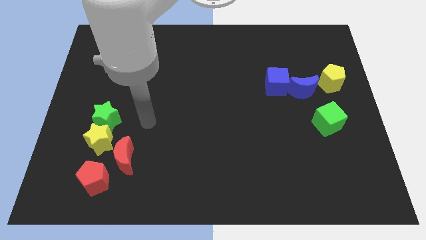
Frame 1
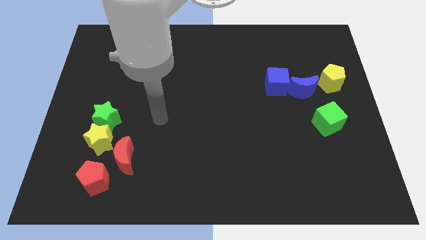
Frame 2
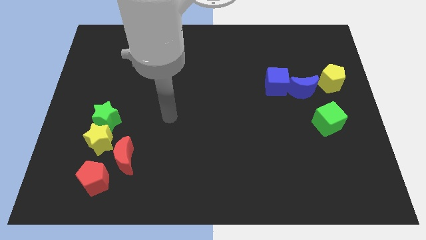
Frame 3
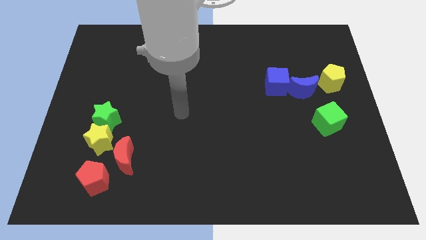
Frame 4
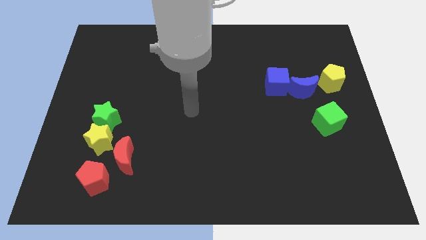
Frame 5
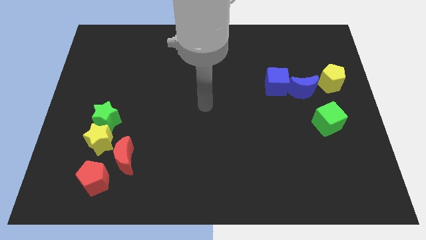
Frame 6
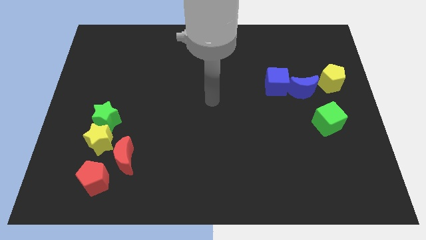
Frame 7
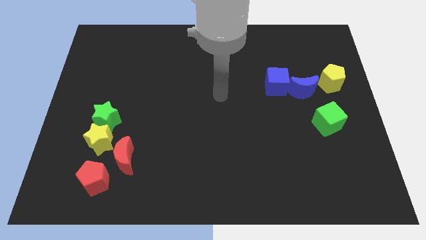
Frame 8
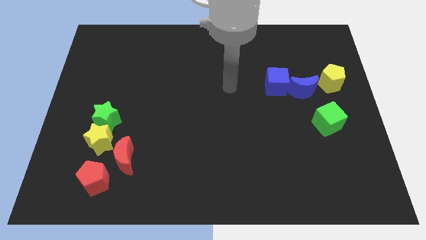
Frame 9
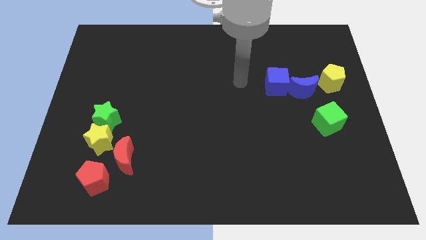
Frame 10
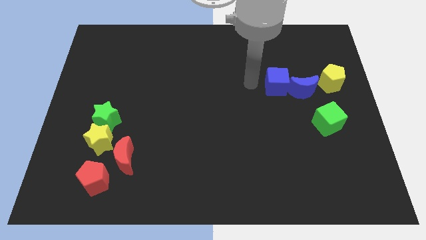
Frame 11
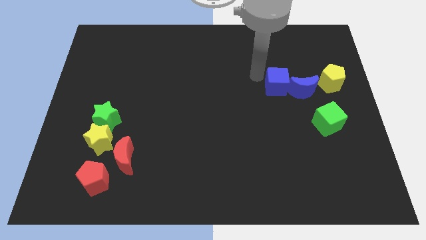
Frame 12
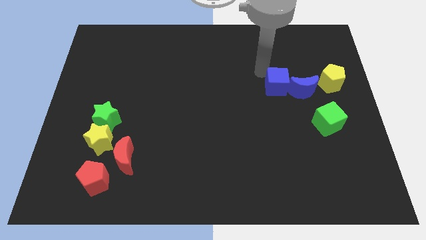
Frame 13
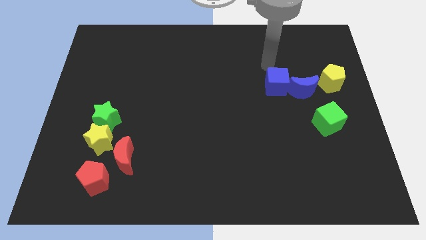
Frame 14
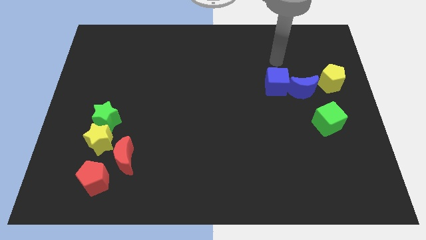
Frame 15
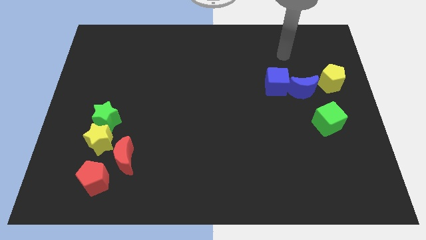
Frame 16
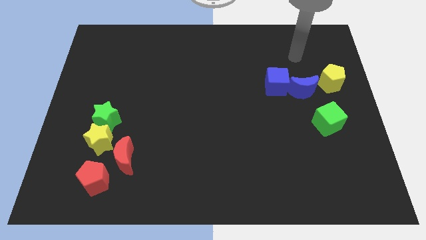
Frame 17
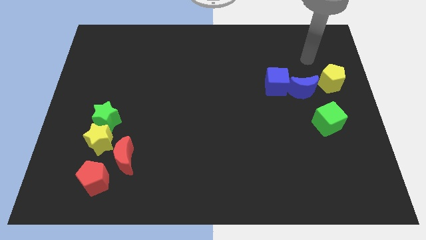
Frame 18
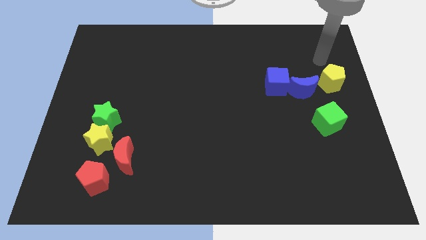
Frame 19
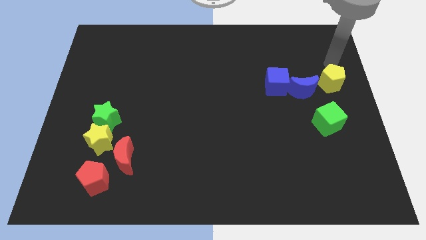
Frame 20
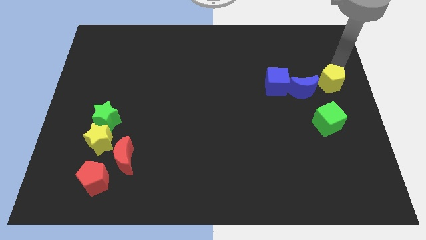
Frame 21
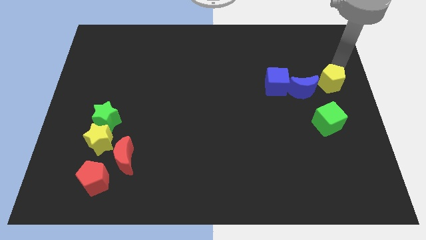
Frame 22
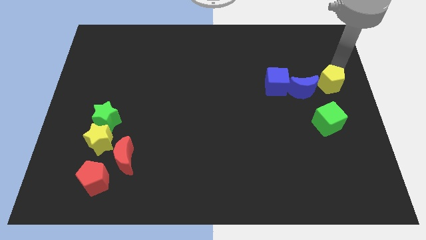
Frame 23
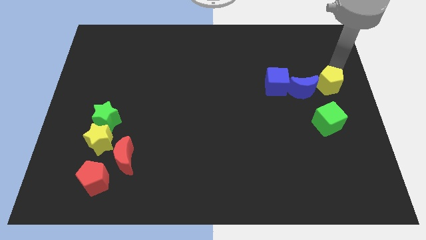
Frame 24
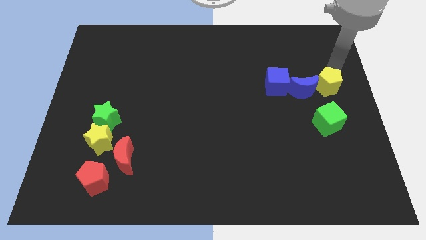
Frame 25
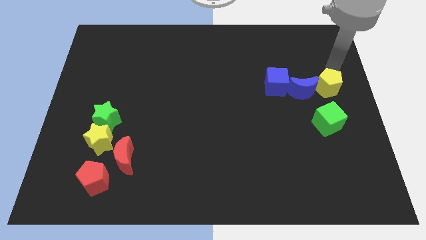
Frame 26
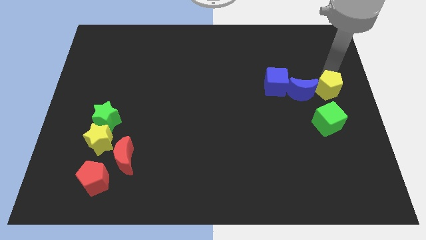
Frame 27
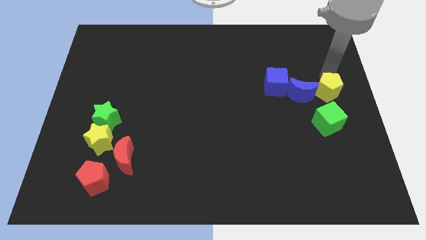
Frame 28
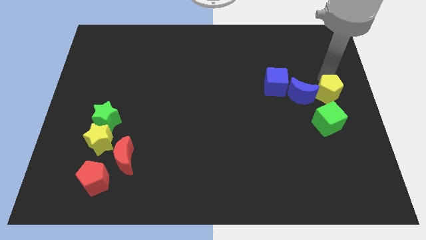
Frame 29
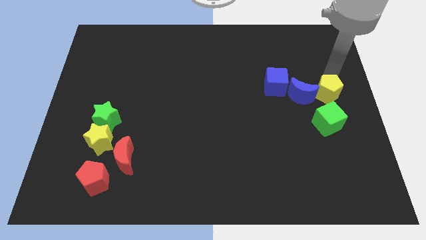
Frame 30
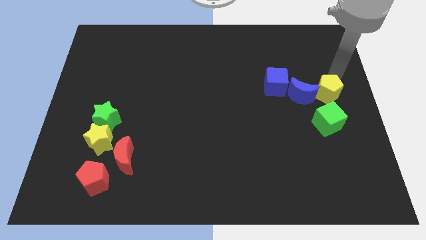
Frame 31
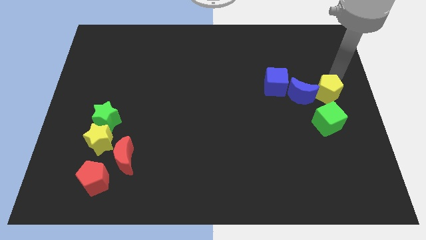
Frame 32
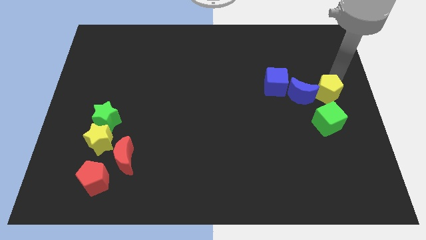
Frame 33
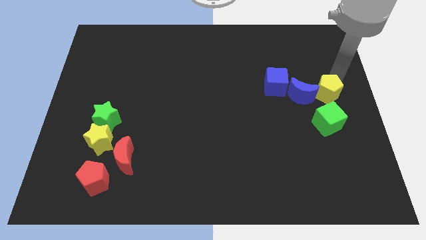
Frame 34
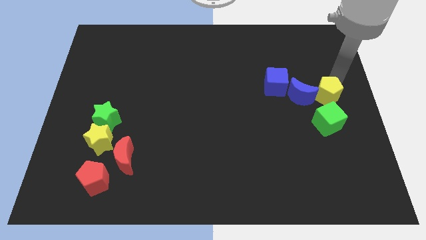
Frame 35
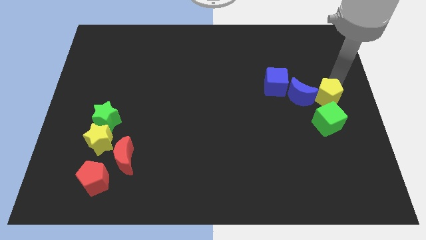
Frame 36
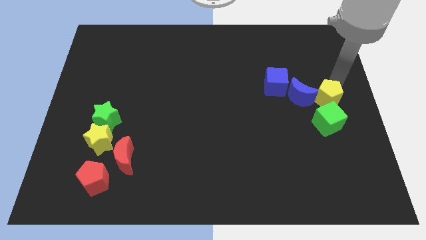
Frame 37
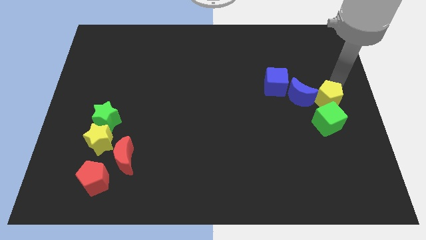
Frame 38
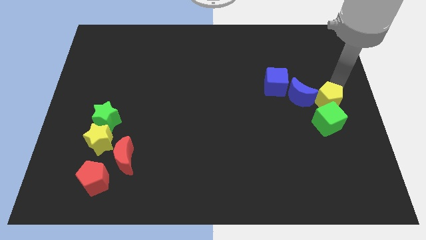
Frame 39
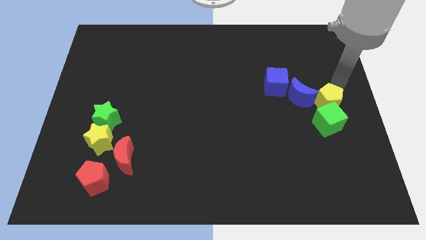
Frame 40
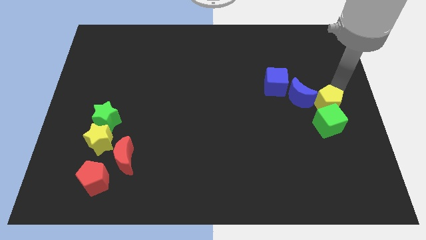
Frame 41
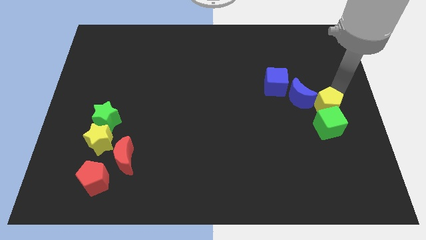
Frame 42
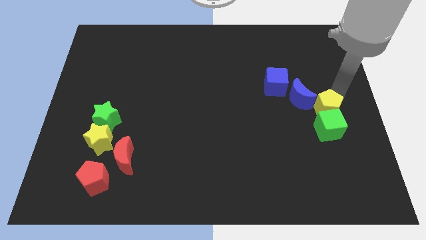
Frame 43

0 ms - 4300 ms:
slightly move the yellow pentagon downwards and then to the left

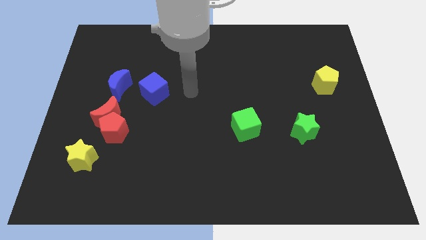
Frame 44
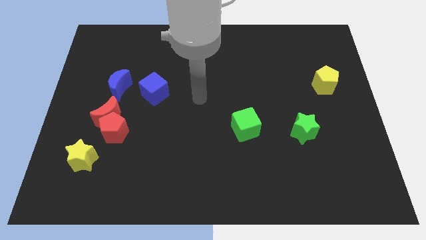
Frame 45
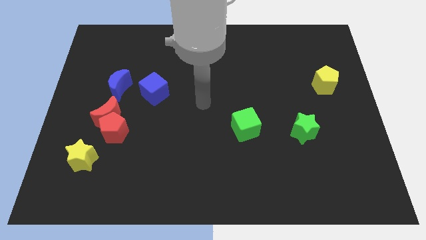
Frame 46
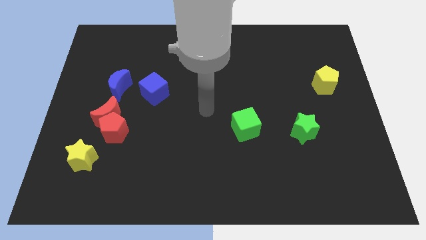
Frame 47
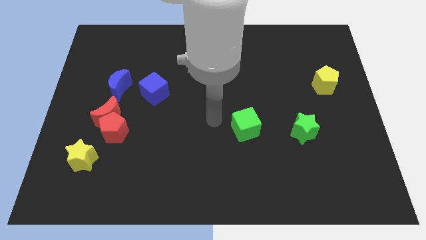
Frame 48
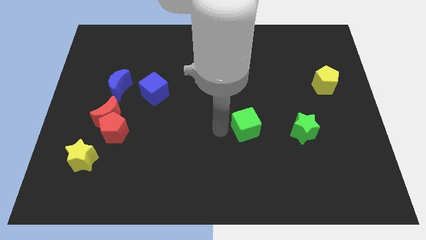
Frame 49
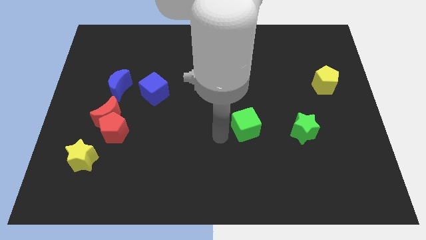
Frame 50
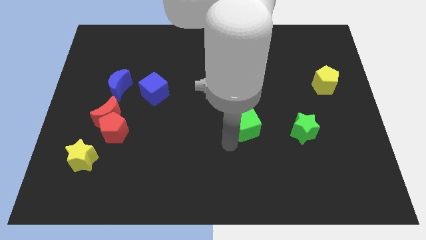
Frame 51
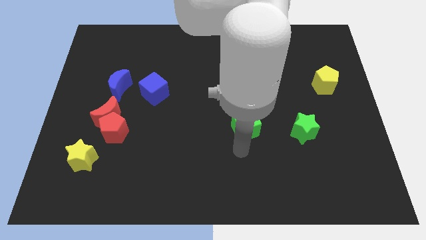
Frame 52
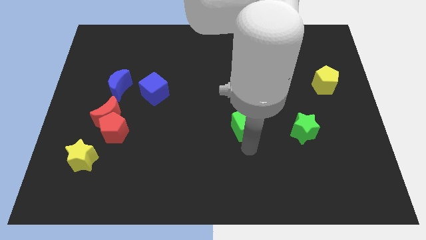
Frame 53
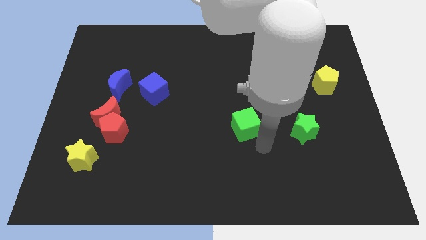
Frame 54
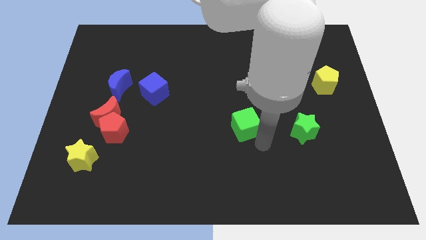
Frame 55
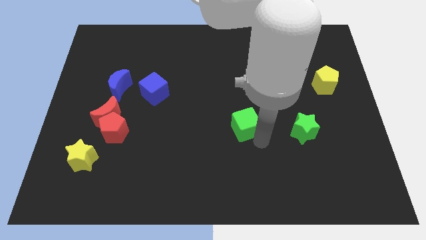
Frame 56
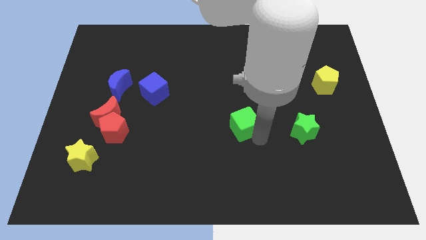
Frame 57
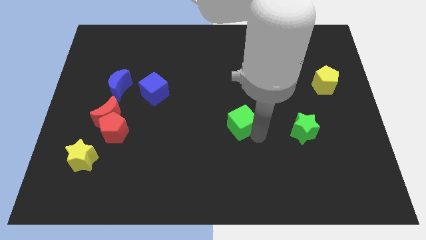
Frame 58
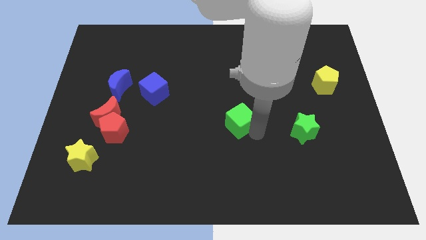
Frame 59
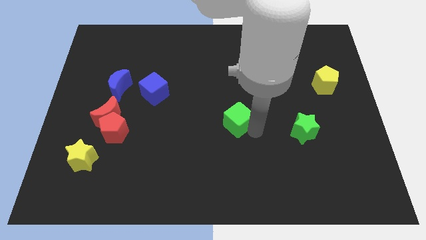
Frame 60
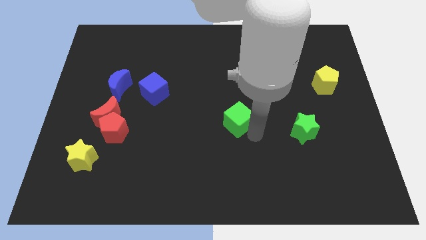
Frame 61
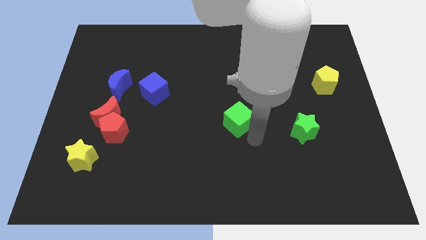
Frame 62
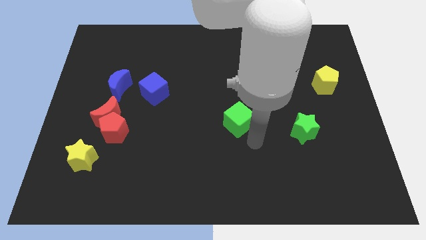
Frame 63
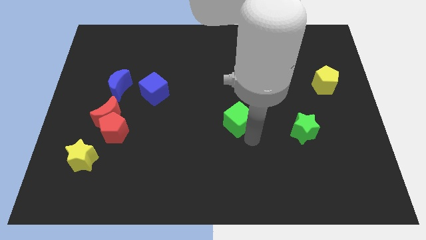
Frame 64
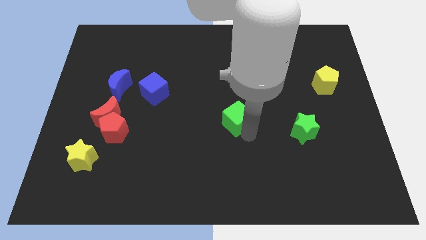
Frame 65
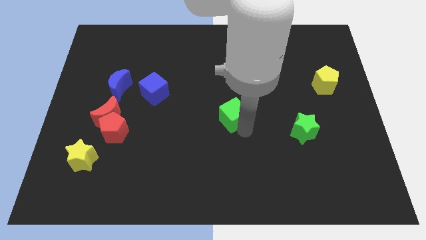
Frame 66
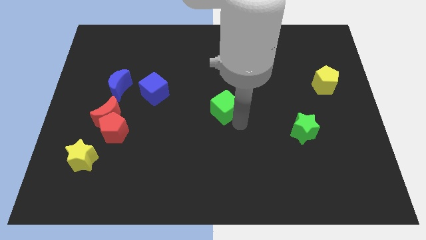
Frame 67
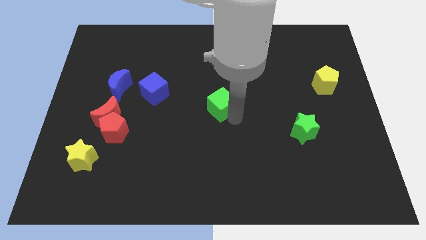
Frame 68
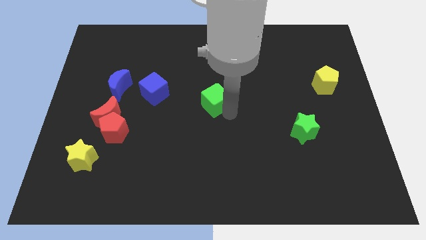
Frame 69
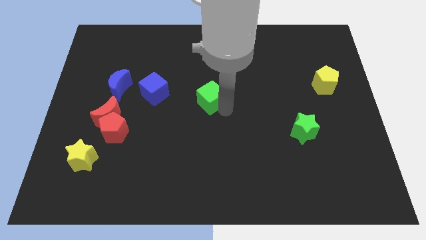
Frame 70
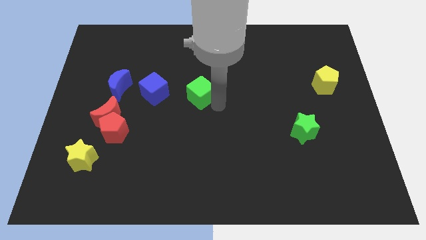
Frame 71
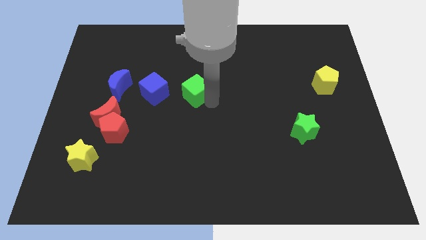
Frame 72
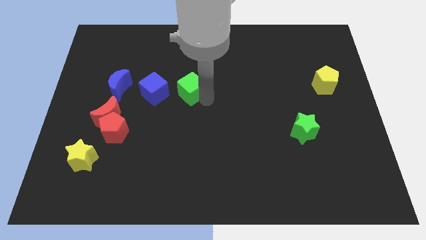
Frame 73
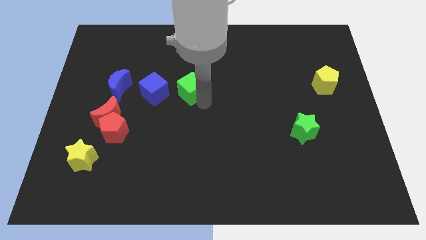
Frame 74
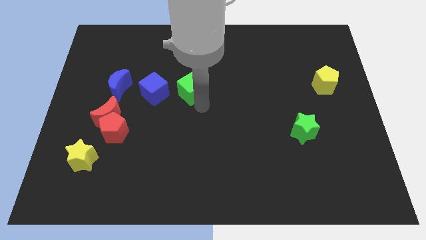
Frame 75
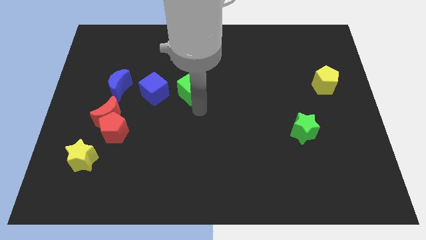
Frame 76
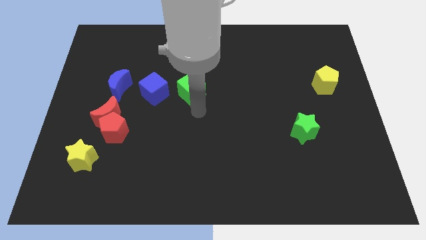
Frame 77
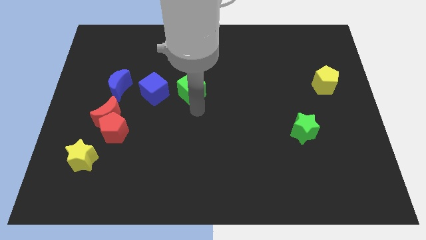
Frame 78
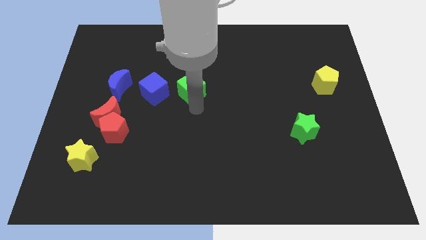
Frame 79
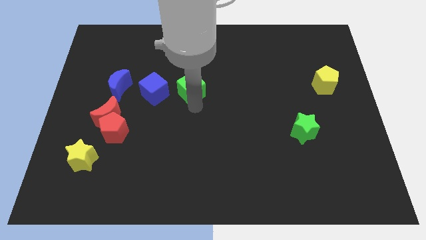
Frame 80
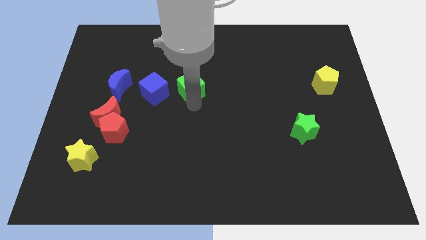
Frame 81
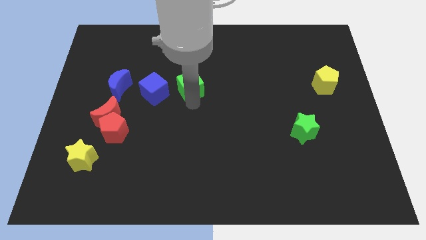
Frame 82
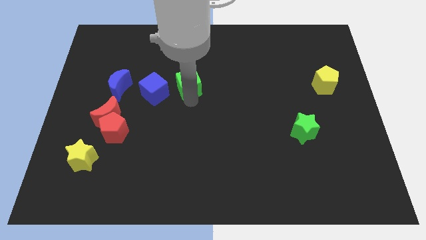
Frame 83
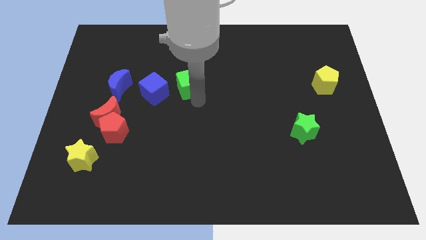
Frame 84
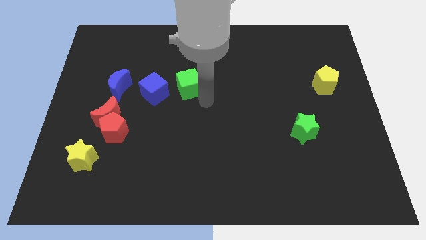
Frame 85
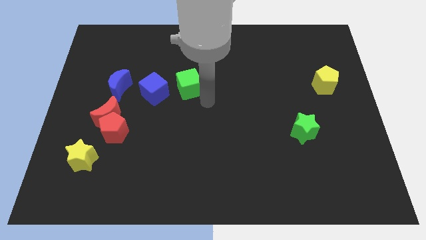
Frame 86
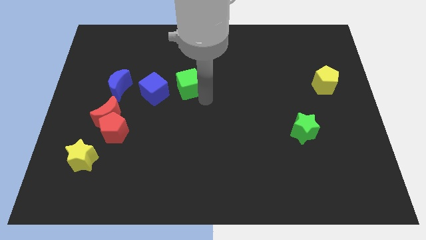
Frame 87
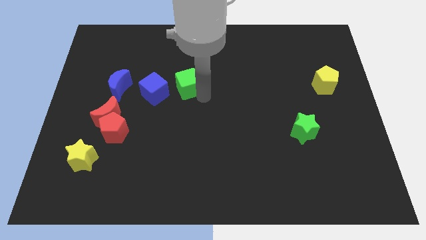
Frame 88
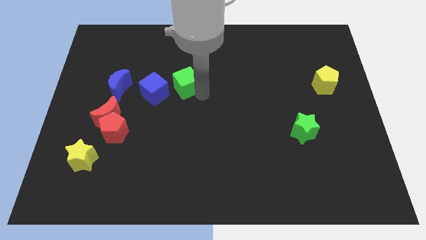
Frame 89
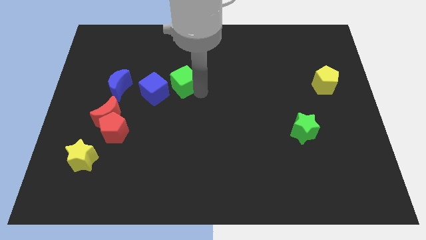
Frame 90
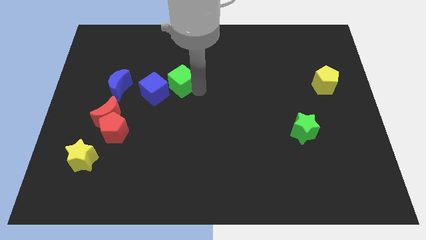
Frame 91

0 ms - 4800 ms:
slide the green cube upwards and left diagonally
